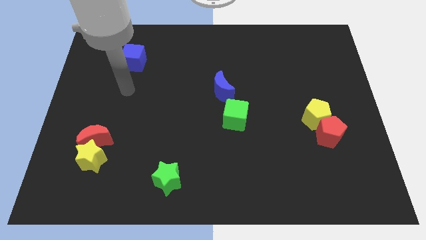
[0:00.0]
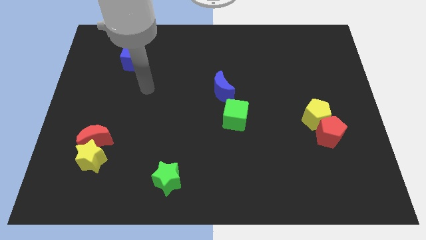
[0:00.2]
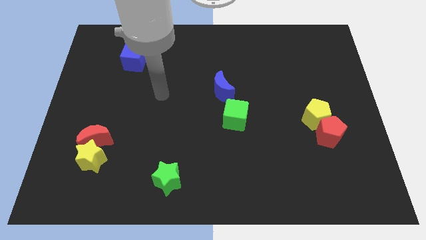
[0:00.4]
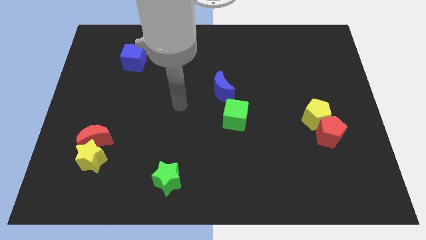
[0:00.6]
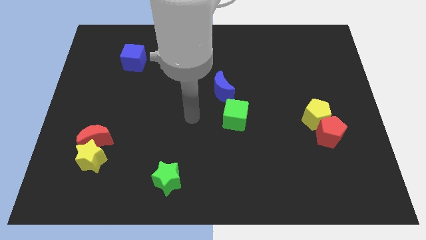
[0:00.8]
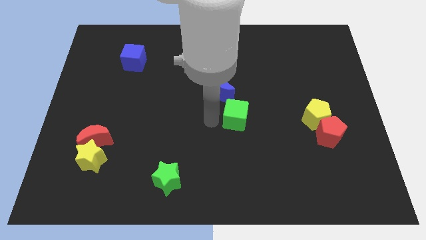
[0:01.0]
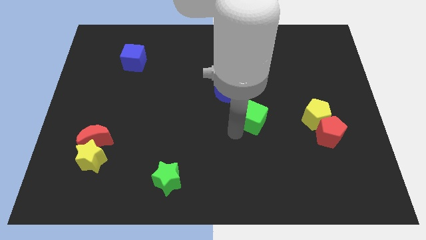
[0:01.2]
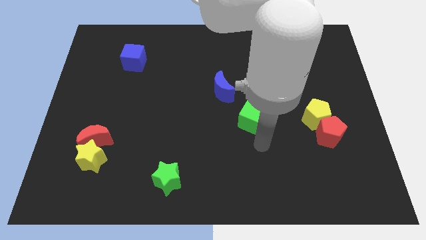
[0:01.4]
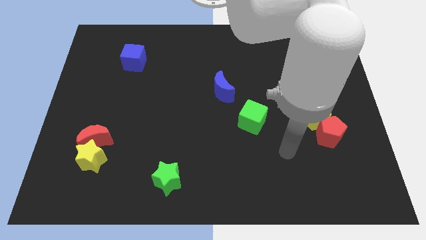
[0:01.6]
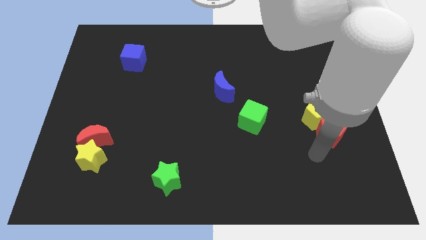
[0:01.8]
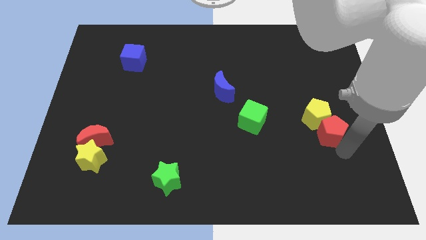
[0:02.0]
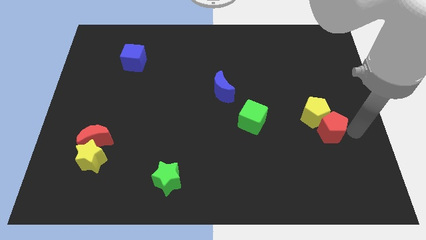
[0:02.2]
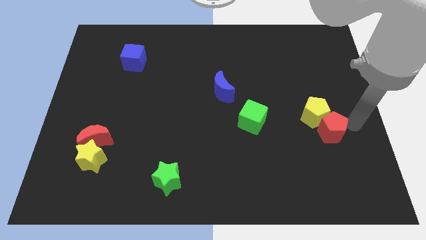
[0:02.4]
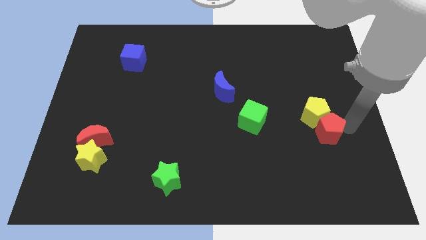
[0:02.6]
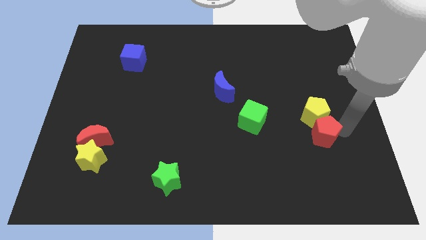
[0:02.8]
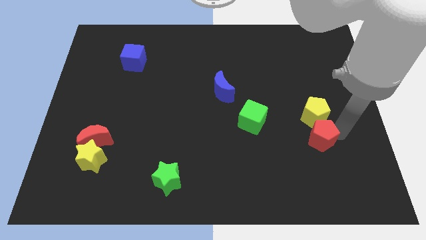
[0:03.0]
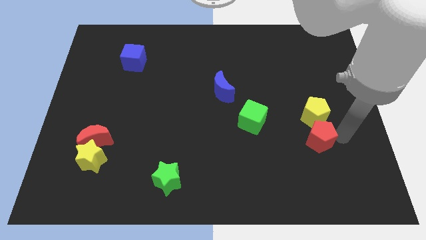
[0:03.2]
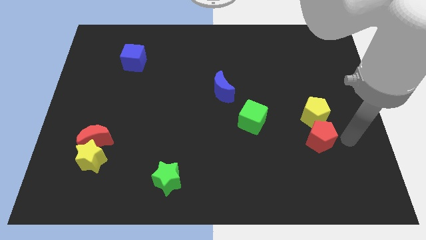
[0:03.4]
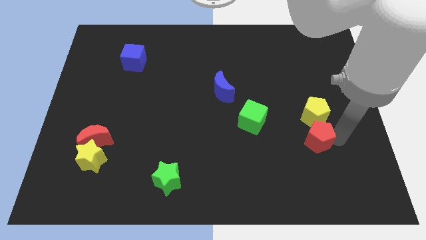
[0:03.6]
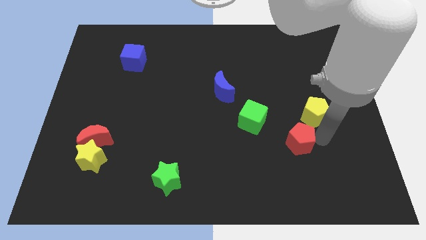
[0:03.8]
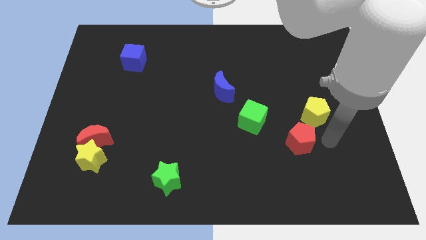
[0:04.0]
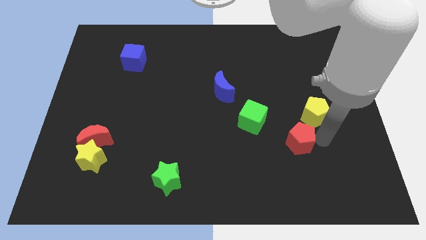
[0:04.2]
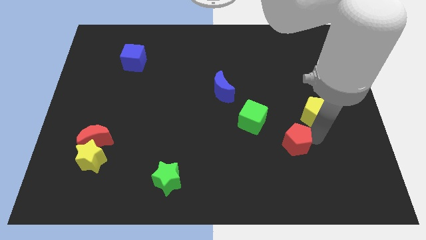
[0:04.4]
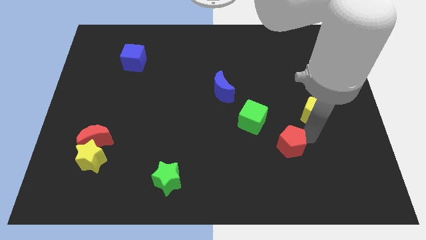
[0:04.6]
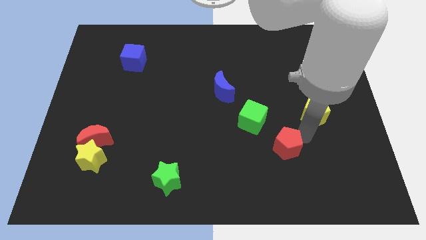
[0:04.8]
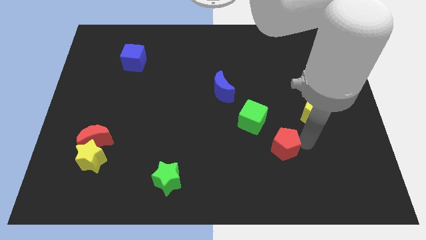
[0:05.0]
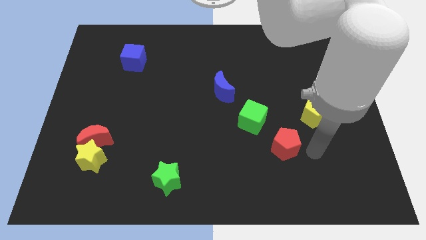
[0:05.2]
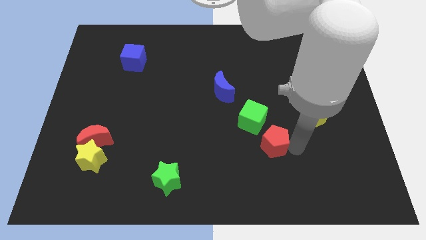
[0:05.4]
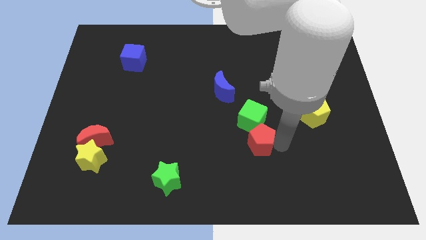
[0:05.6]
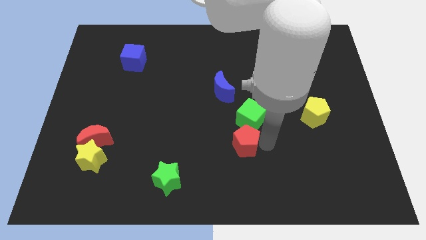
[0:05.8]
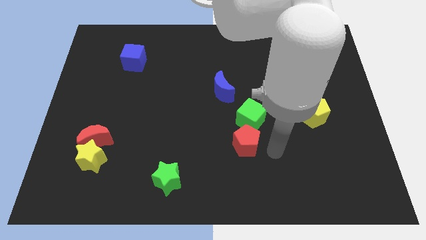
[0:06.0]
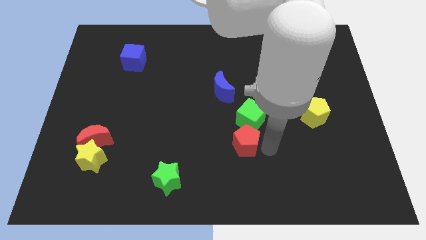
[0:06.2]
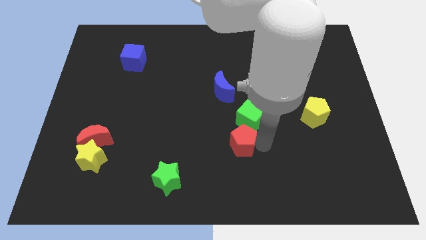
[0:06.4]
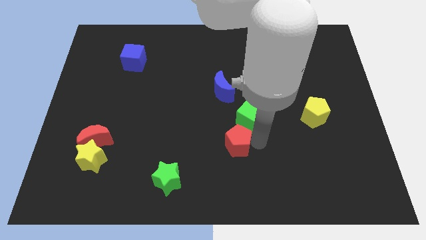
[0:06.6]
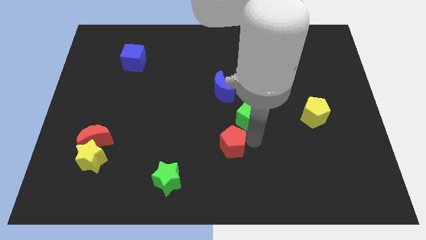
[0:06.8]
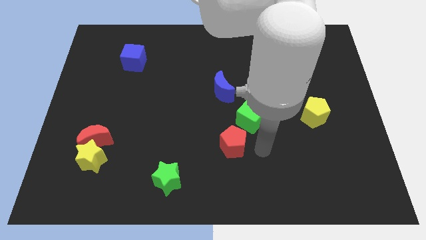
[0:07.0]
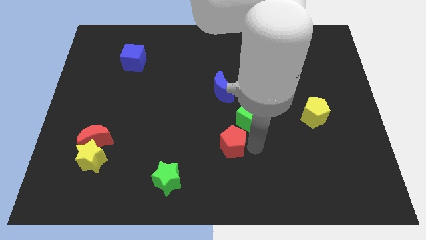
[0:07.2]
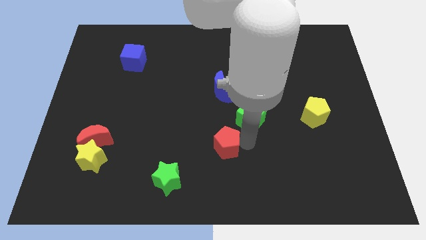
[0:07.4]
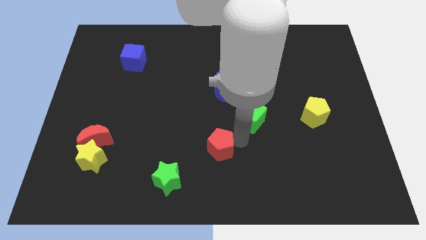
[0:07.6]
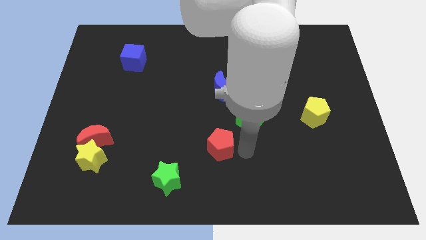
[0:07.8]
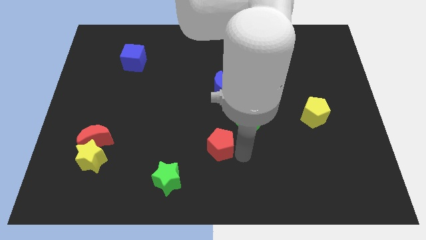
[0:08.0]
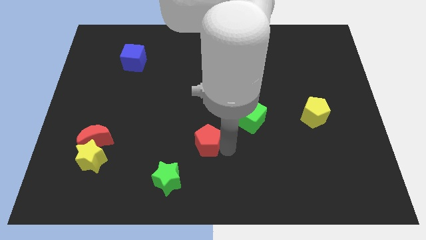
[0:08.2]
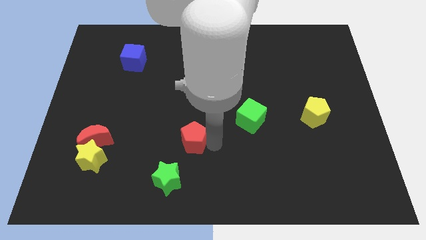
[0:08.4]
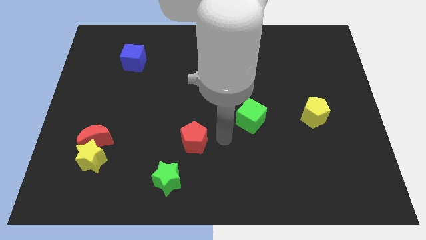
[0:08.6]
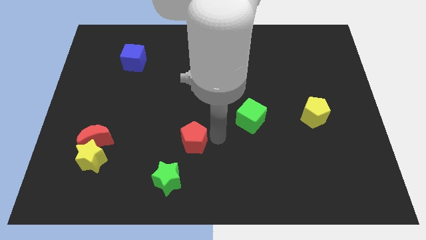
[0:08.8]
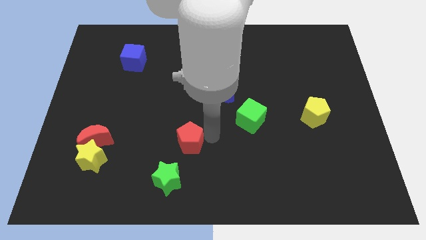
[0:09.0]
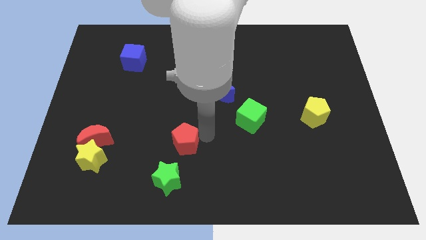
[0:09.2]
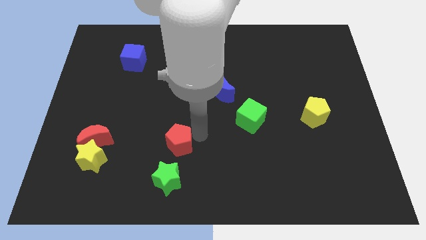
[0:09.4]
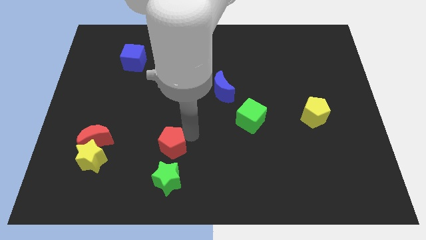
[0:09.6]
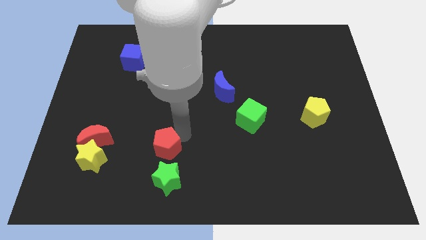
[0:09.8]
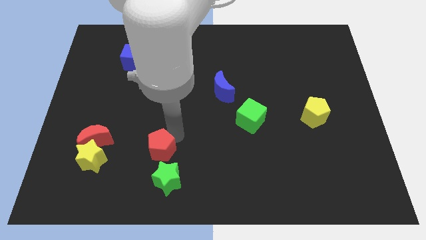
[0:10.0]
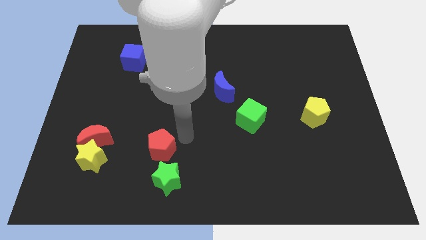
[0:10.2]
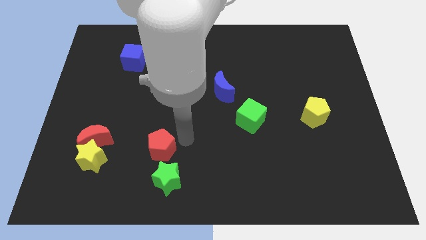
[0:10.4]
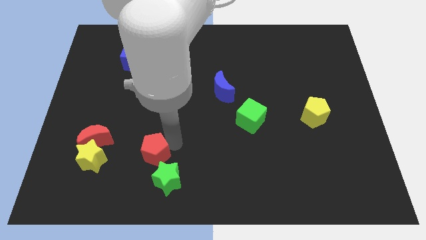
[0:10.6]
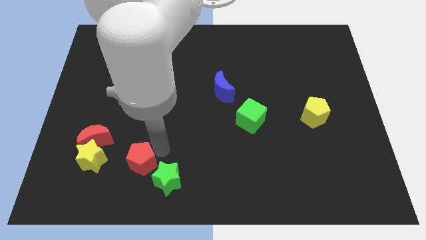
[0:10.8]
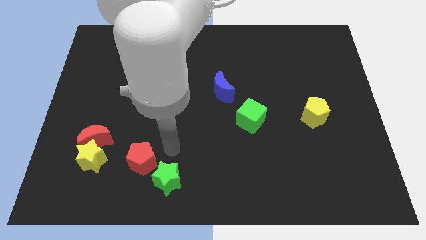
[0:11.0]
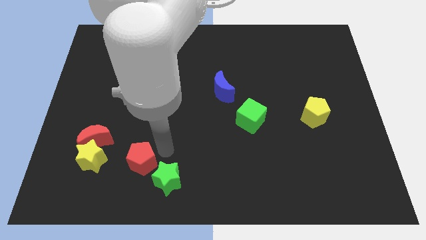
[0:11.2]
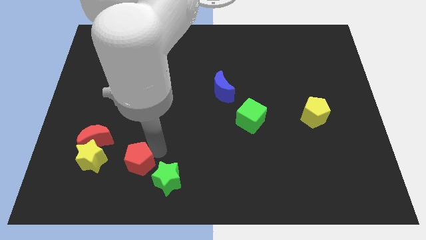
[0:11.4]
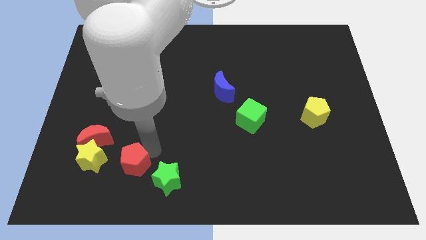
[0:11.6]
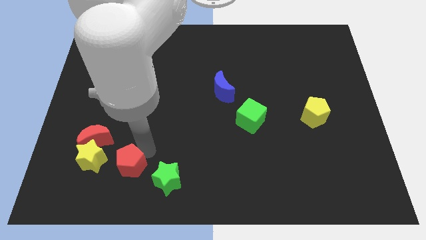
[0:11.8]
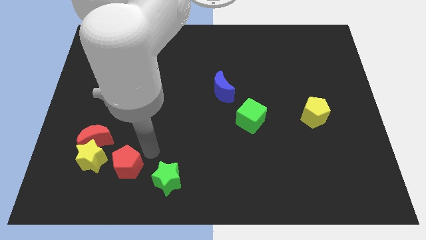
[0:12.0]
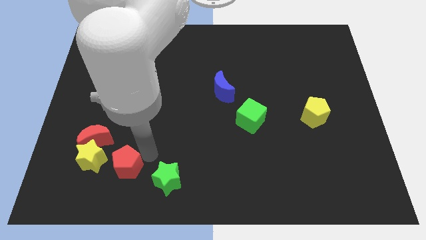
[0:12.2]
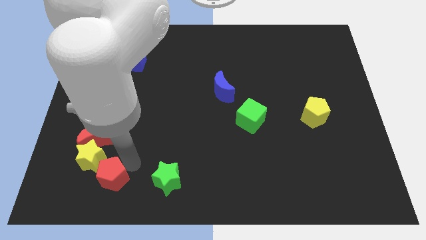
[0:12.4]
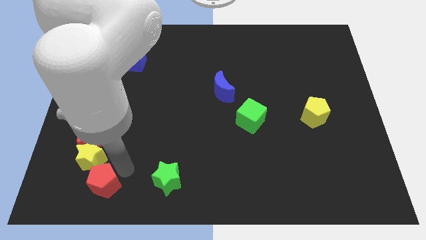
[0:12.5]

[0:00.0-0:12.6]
slide the red pentagon to the bottom of the red moon
